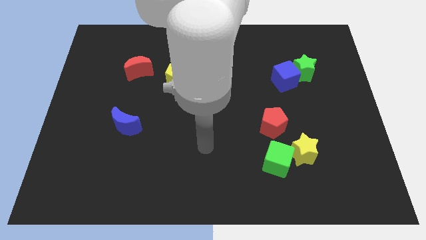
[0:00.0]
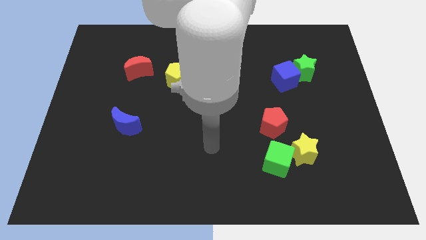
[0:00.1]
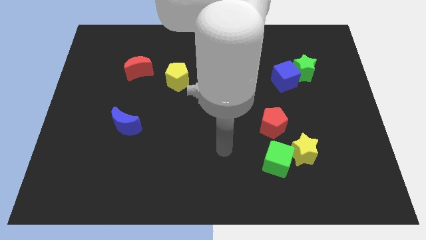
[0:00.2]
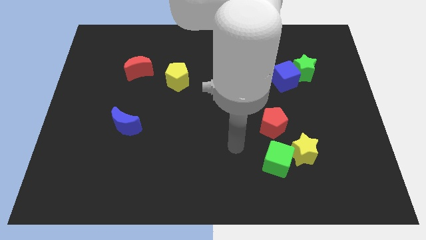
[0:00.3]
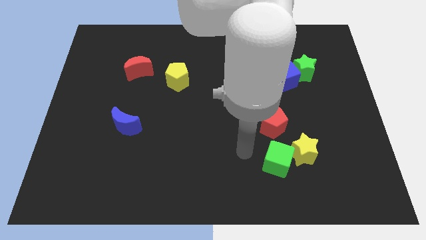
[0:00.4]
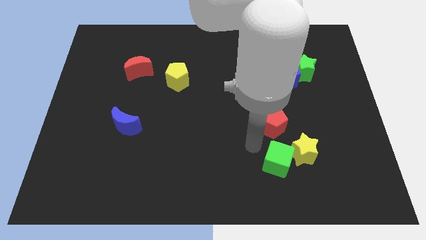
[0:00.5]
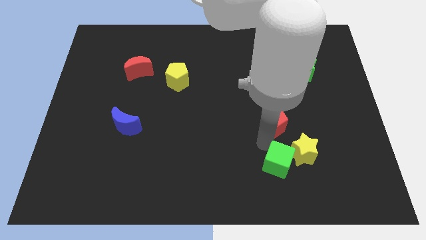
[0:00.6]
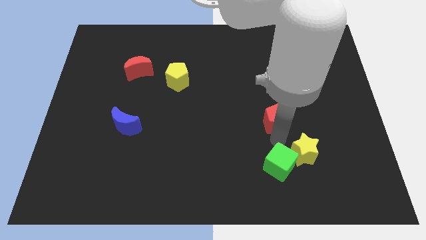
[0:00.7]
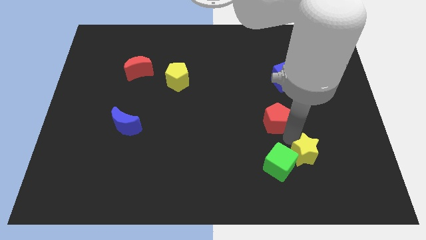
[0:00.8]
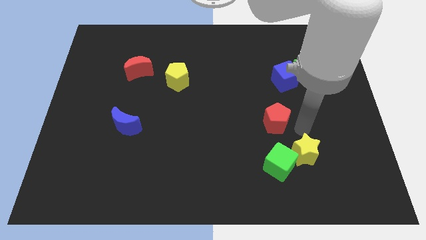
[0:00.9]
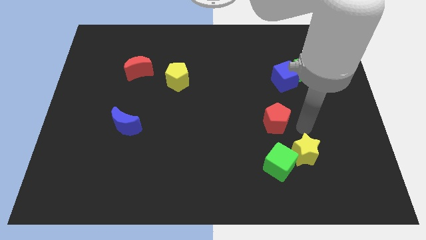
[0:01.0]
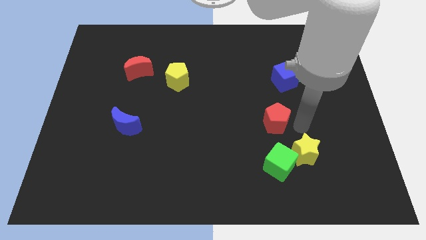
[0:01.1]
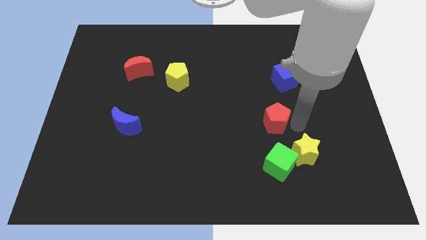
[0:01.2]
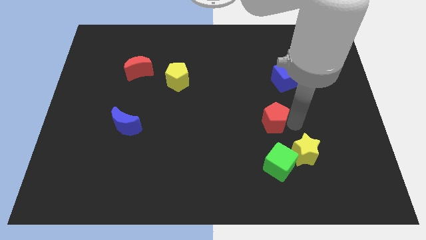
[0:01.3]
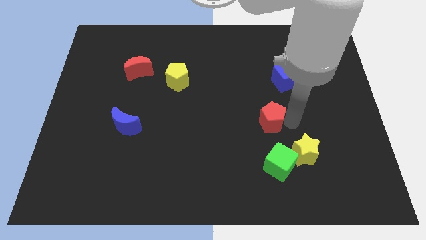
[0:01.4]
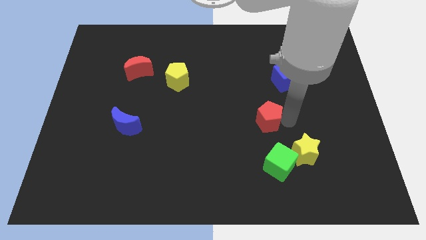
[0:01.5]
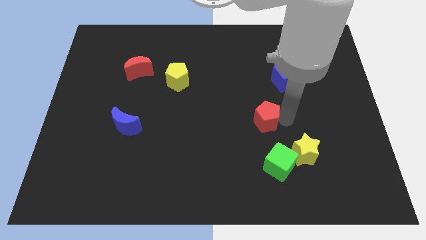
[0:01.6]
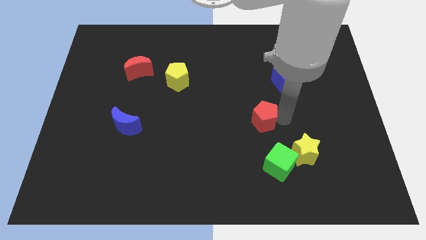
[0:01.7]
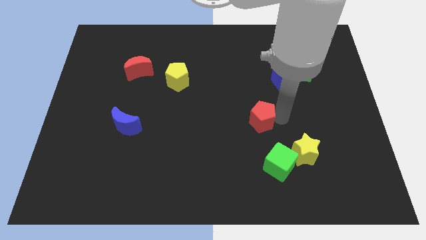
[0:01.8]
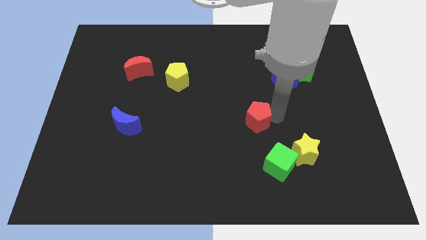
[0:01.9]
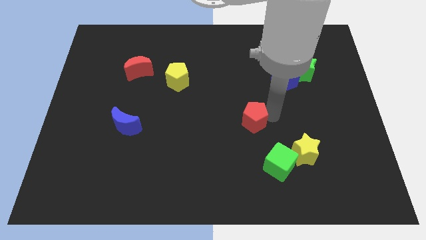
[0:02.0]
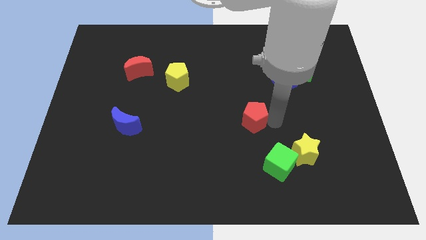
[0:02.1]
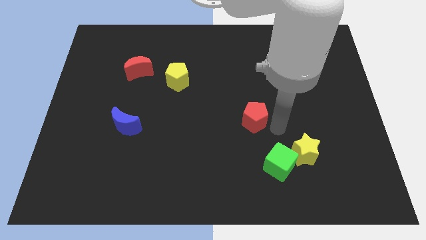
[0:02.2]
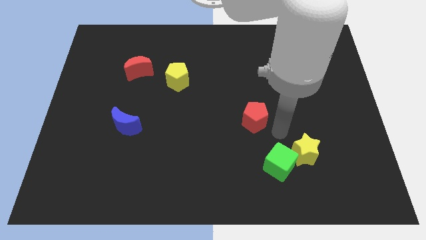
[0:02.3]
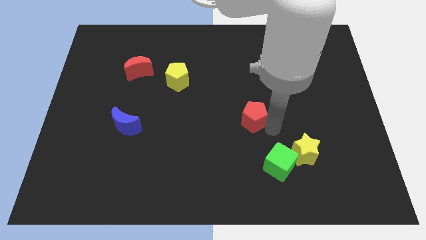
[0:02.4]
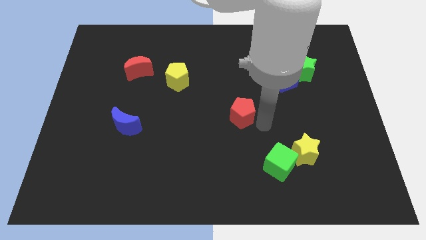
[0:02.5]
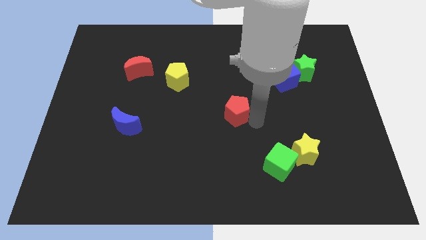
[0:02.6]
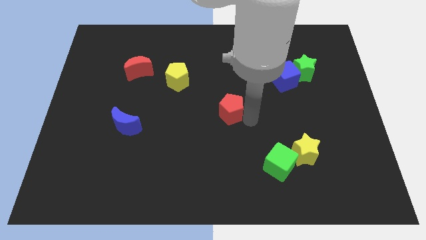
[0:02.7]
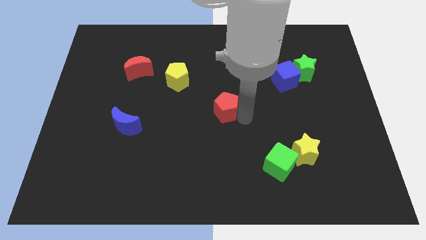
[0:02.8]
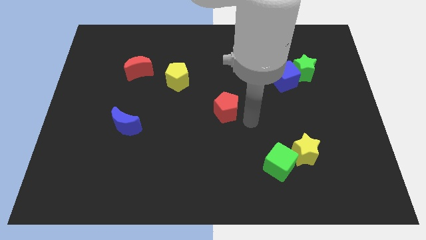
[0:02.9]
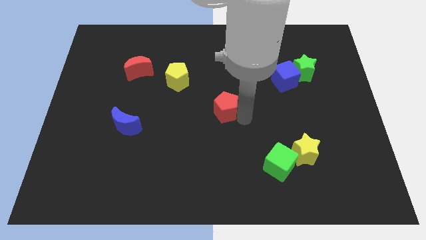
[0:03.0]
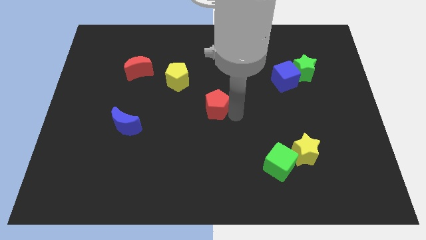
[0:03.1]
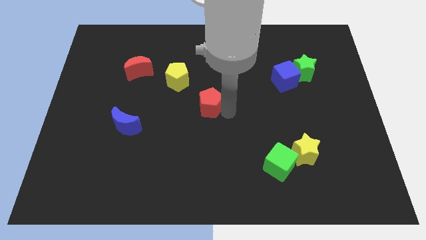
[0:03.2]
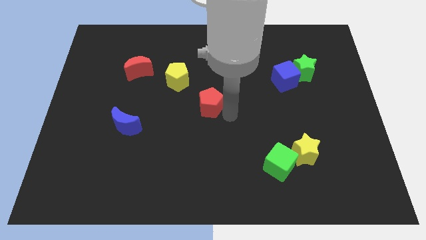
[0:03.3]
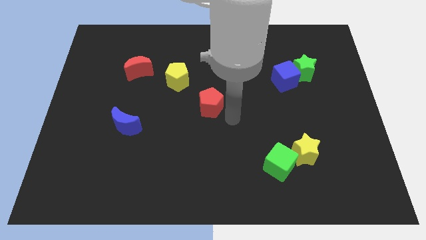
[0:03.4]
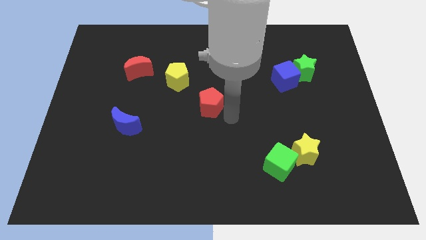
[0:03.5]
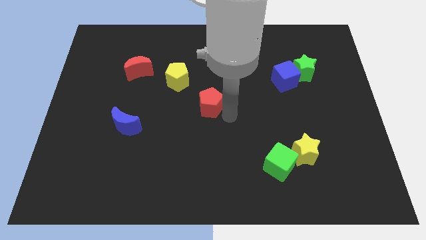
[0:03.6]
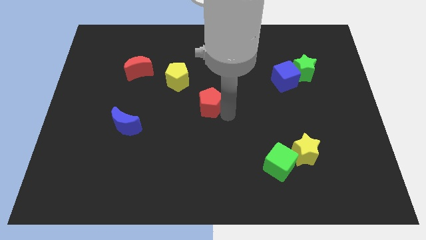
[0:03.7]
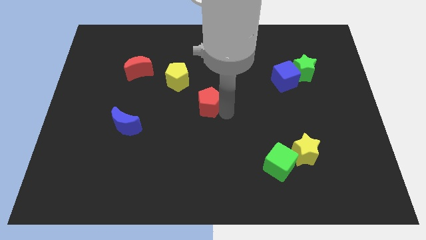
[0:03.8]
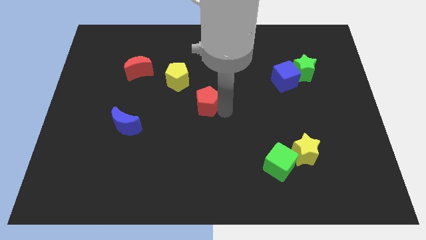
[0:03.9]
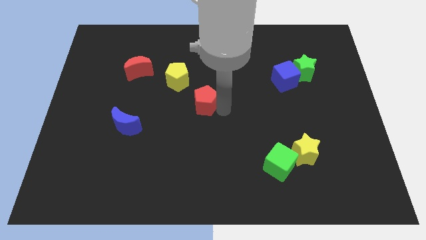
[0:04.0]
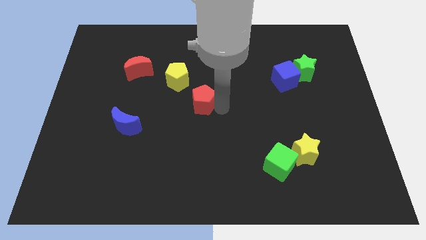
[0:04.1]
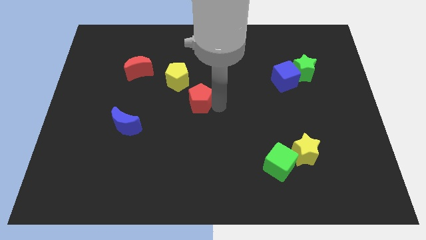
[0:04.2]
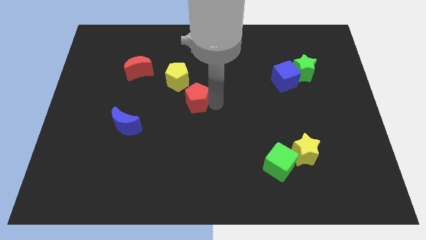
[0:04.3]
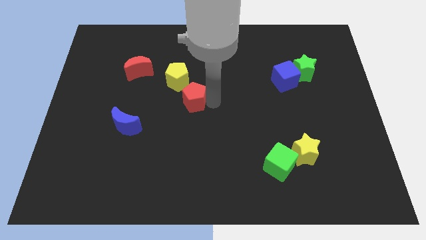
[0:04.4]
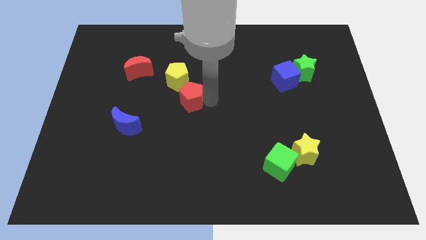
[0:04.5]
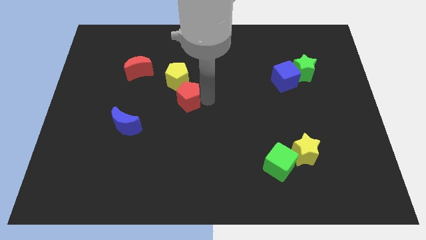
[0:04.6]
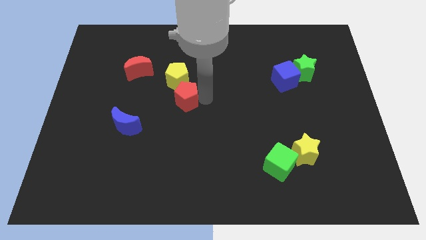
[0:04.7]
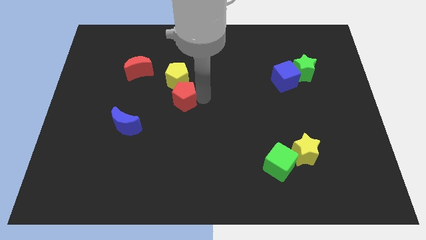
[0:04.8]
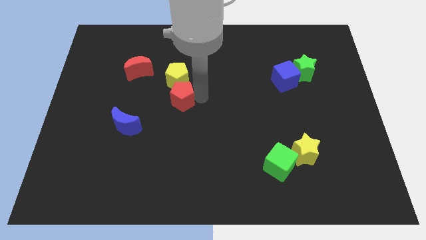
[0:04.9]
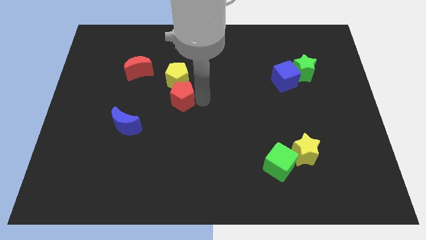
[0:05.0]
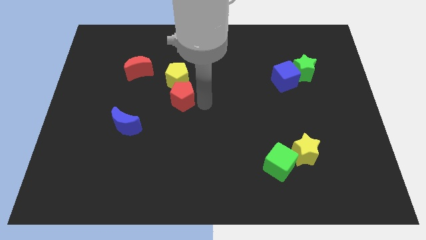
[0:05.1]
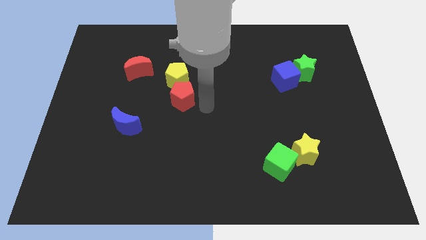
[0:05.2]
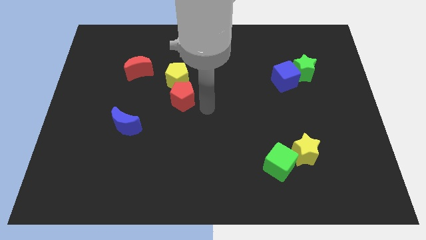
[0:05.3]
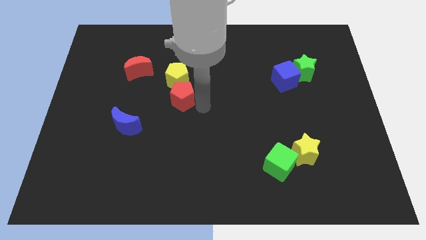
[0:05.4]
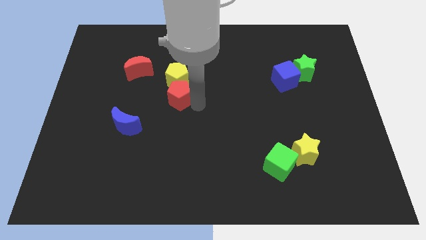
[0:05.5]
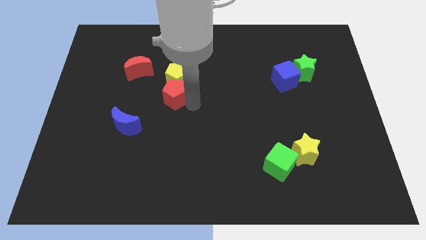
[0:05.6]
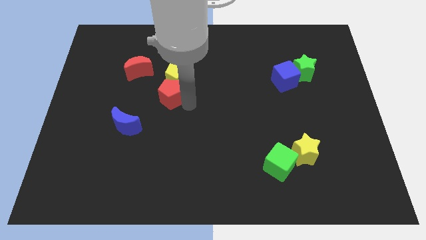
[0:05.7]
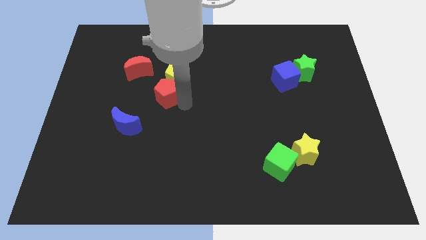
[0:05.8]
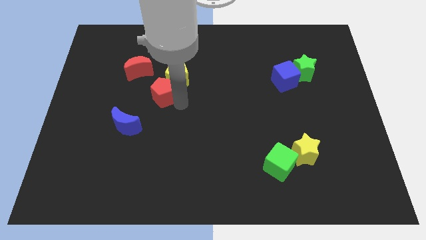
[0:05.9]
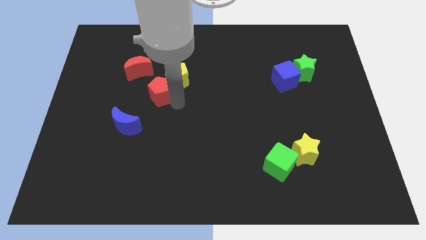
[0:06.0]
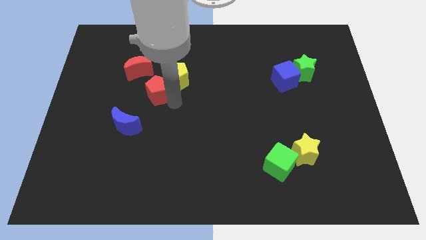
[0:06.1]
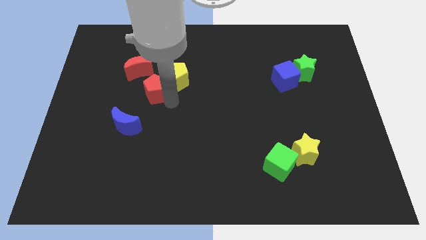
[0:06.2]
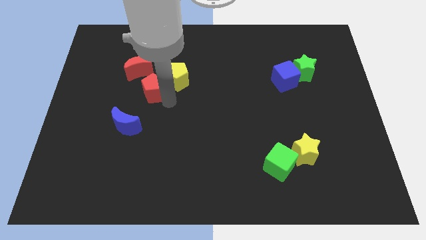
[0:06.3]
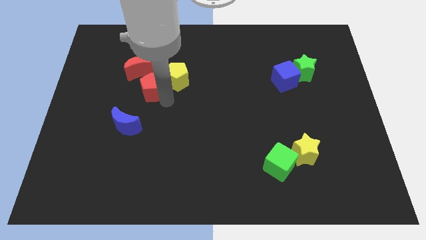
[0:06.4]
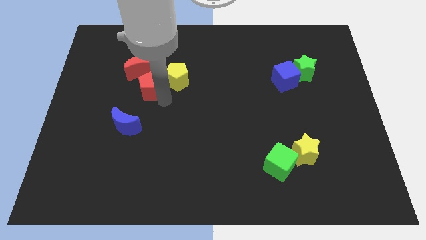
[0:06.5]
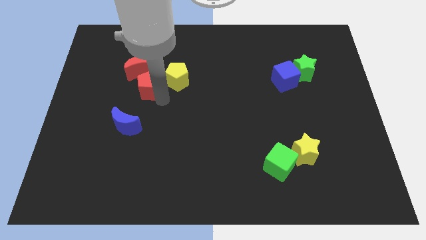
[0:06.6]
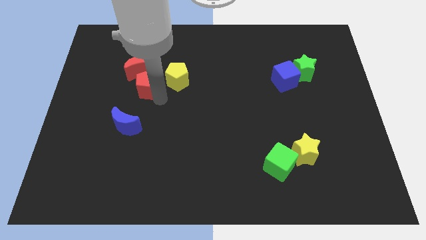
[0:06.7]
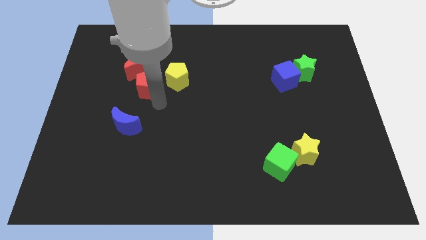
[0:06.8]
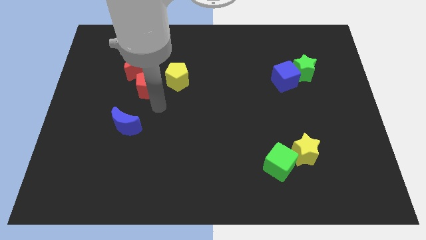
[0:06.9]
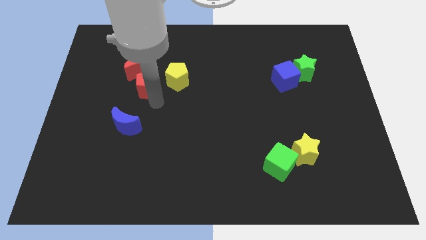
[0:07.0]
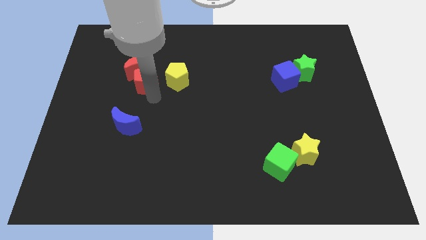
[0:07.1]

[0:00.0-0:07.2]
slide the red pentagon to the red moon

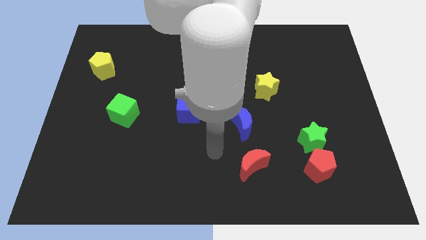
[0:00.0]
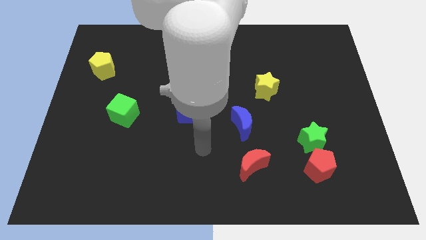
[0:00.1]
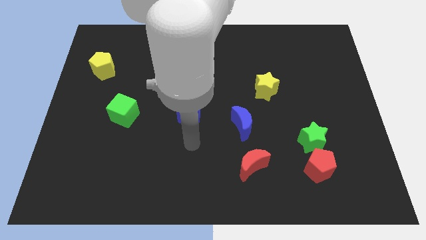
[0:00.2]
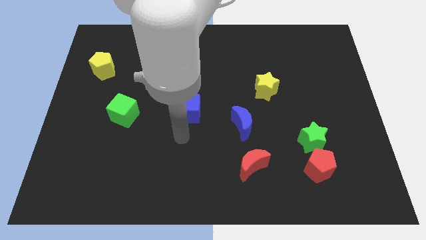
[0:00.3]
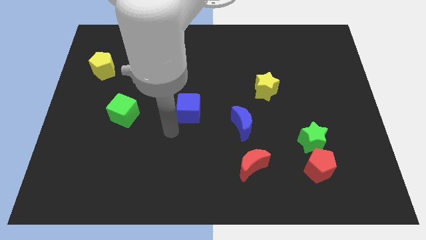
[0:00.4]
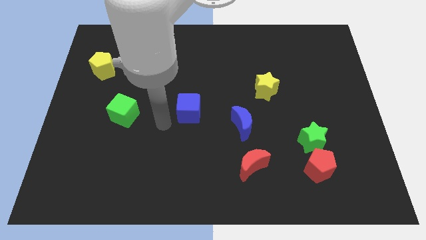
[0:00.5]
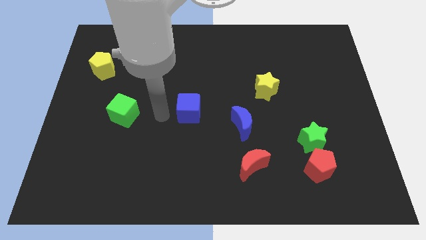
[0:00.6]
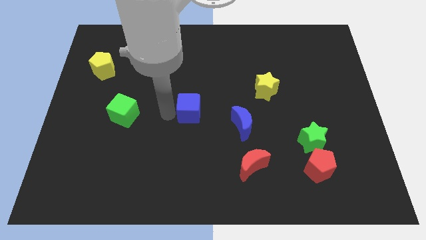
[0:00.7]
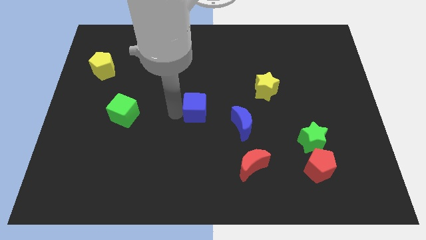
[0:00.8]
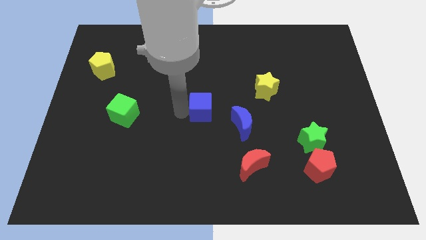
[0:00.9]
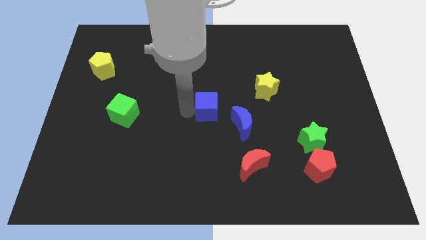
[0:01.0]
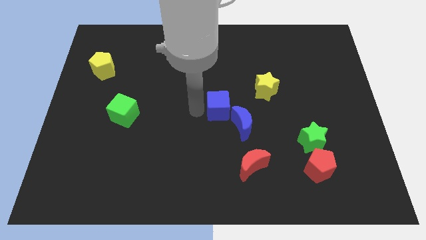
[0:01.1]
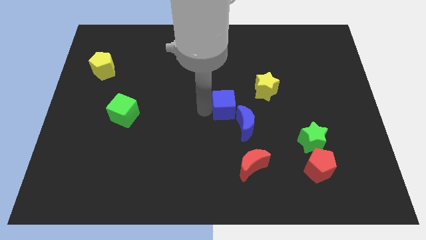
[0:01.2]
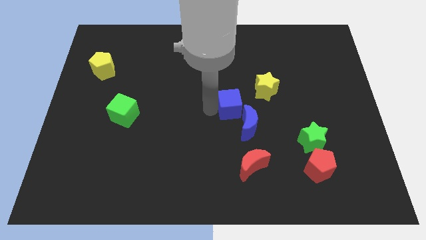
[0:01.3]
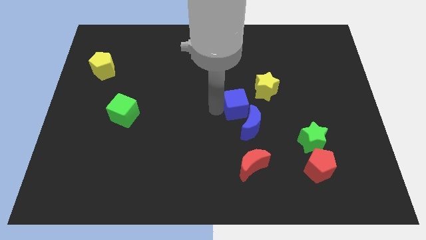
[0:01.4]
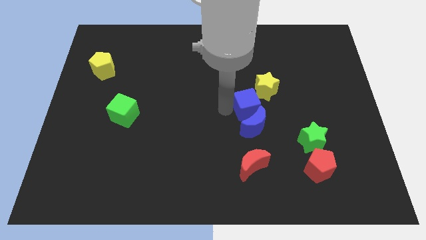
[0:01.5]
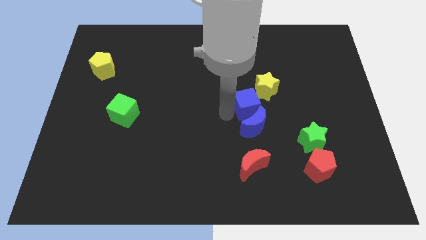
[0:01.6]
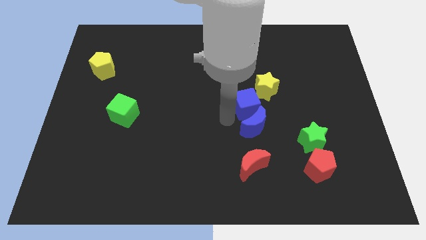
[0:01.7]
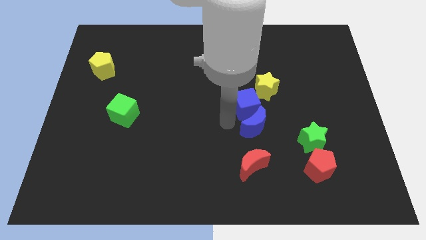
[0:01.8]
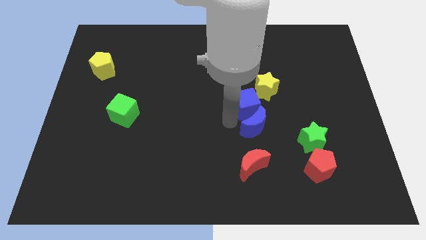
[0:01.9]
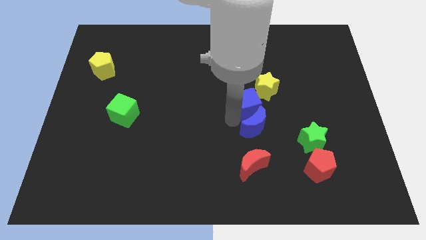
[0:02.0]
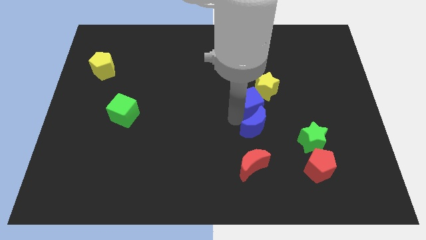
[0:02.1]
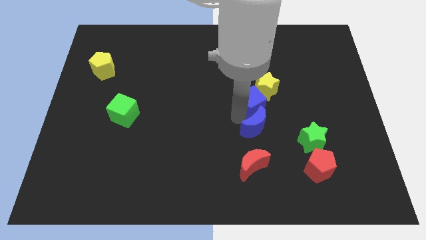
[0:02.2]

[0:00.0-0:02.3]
slide the blue cube to the yellow star
